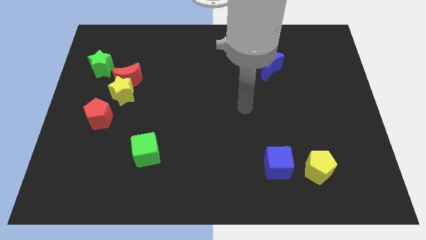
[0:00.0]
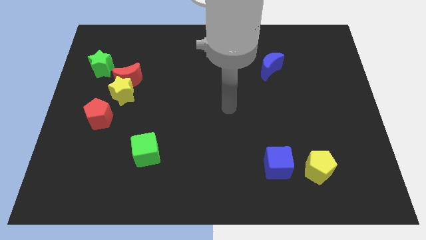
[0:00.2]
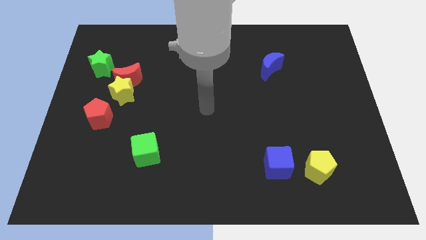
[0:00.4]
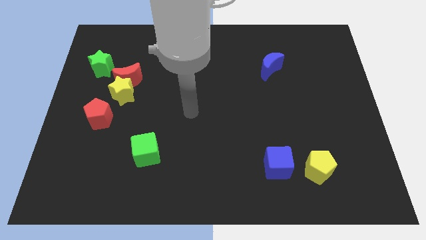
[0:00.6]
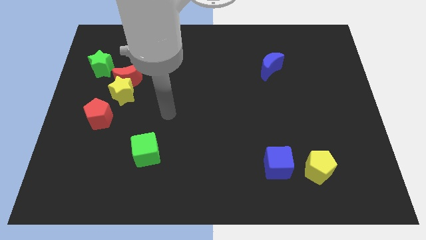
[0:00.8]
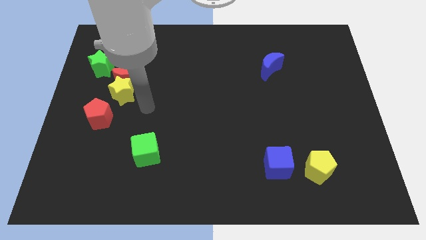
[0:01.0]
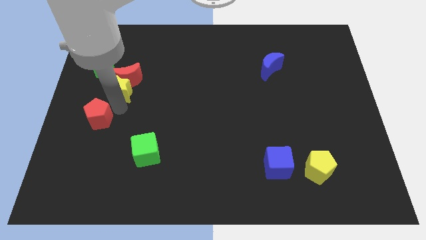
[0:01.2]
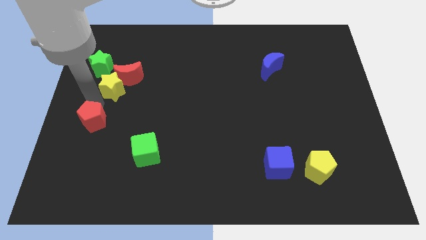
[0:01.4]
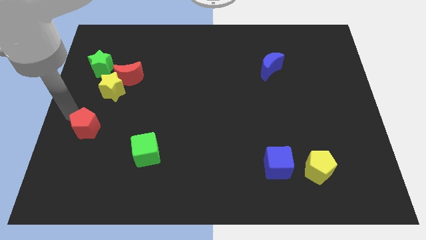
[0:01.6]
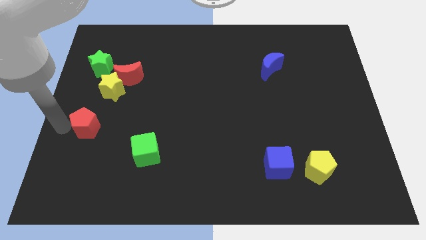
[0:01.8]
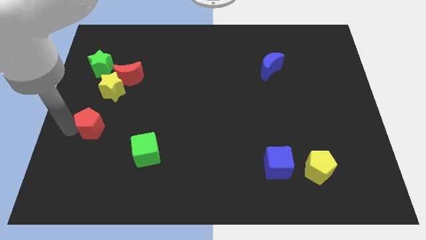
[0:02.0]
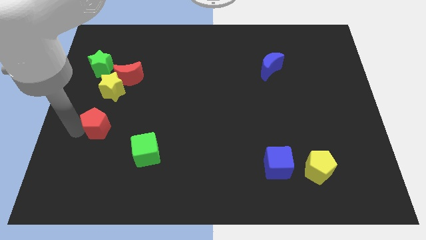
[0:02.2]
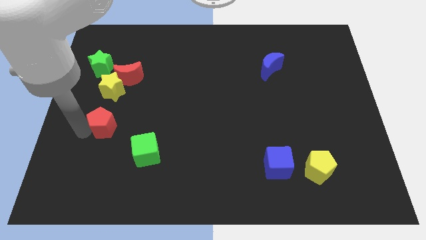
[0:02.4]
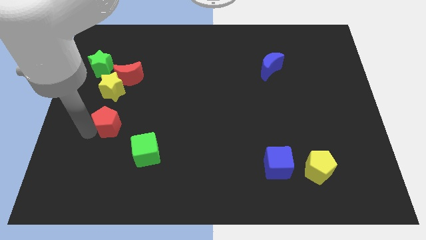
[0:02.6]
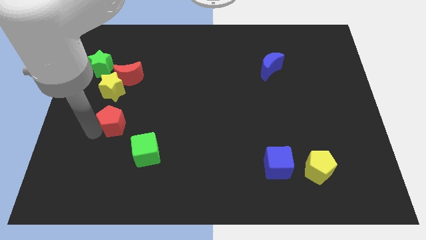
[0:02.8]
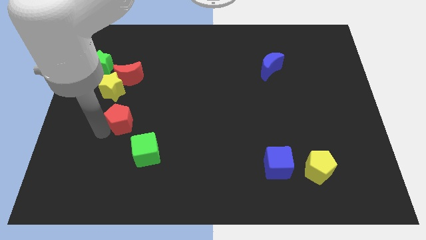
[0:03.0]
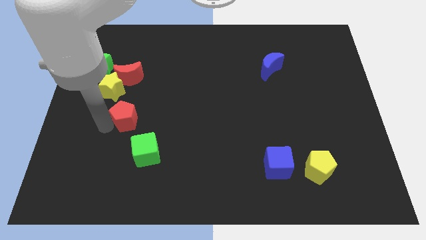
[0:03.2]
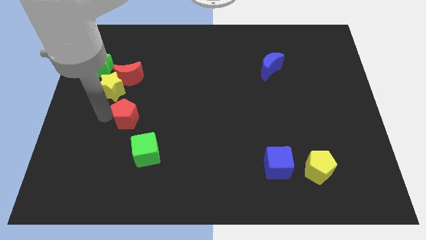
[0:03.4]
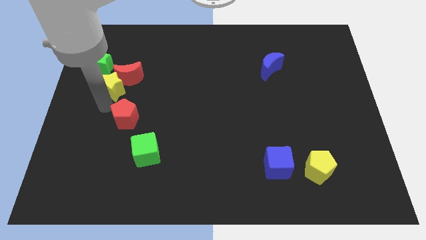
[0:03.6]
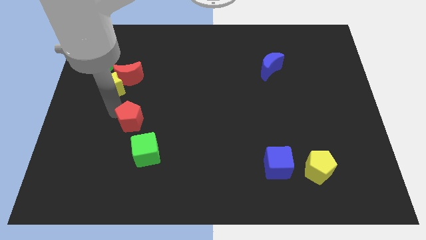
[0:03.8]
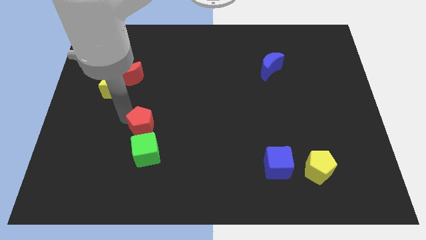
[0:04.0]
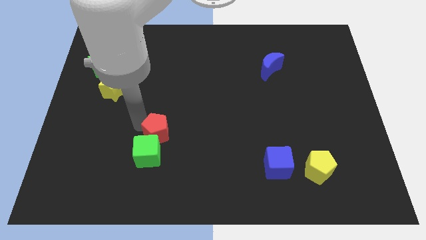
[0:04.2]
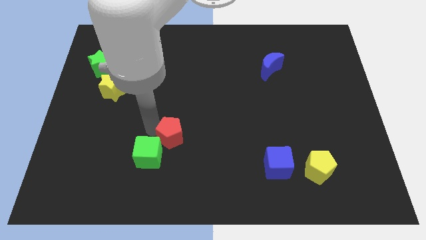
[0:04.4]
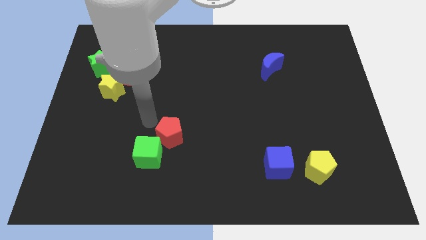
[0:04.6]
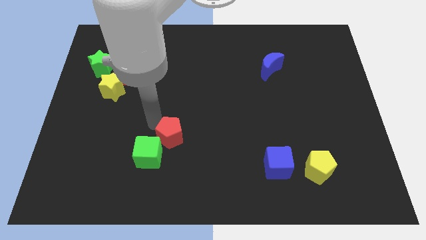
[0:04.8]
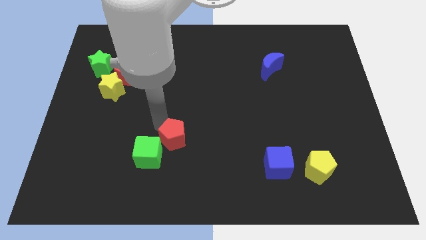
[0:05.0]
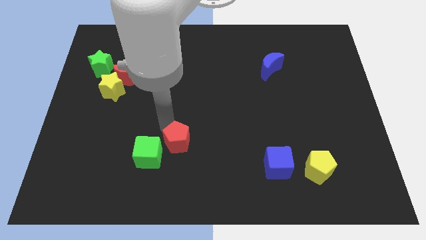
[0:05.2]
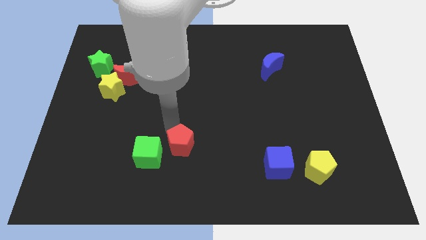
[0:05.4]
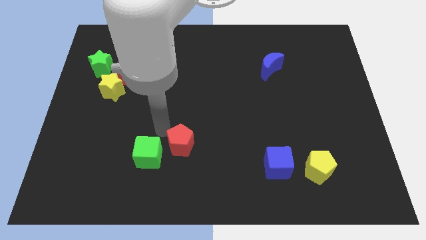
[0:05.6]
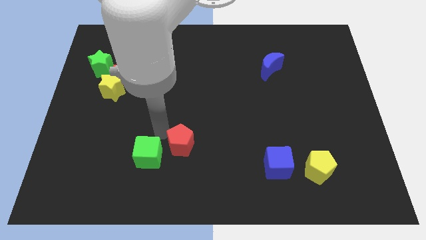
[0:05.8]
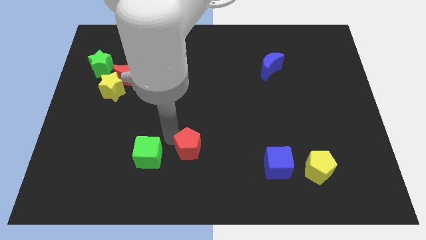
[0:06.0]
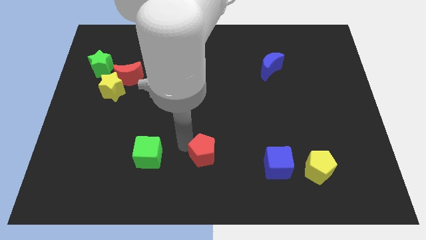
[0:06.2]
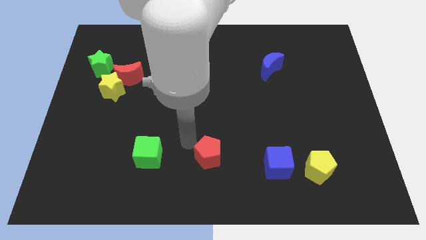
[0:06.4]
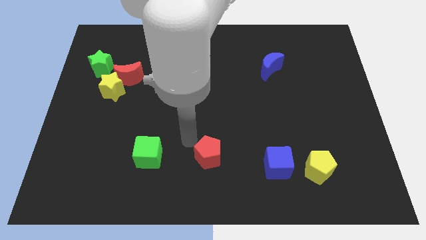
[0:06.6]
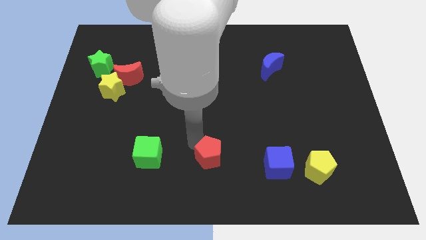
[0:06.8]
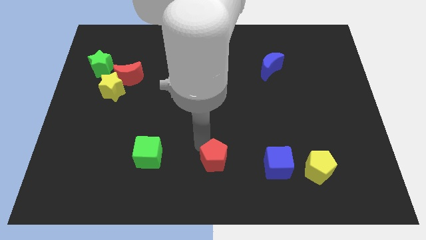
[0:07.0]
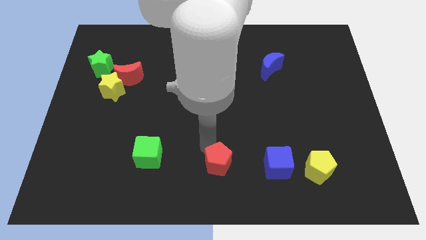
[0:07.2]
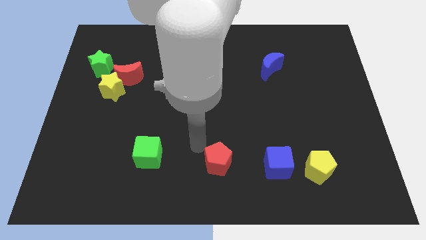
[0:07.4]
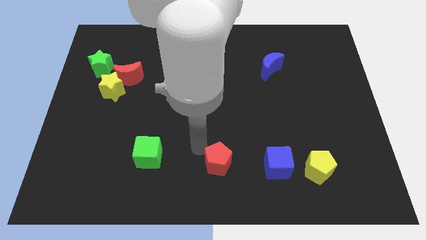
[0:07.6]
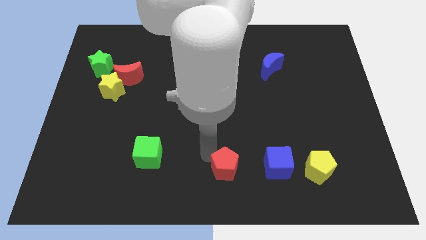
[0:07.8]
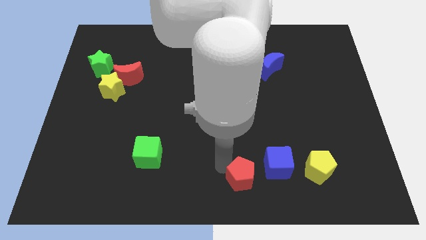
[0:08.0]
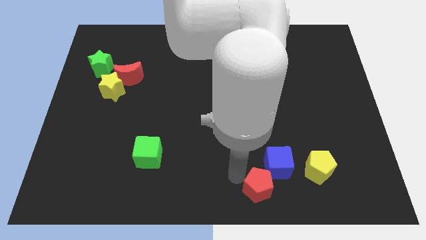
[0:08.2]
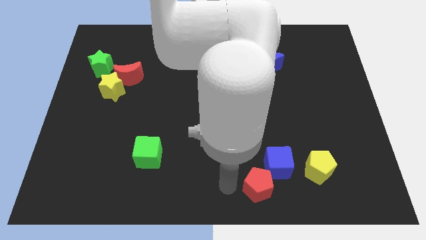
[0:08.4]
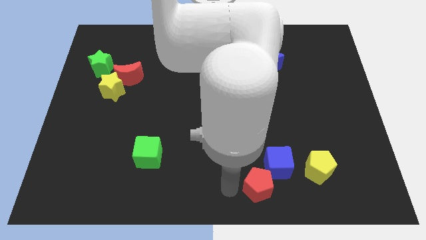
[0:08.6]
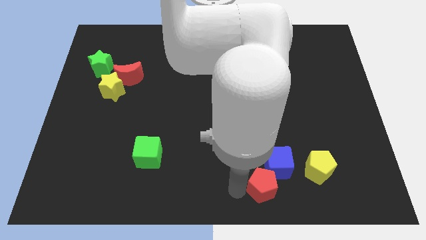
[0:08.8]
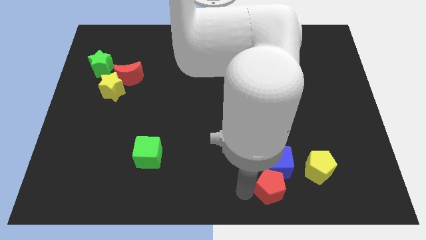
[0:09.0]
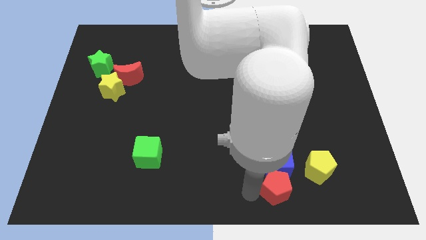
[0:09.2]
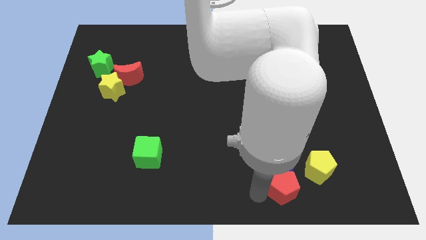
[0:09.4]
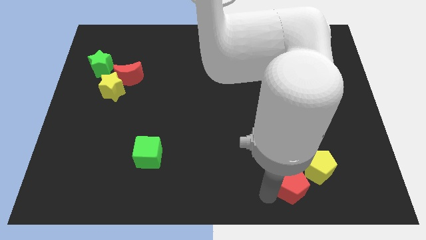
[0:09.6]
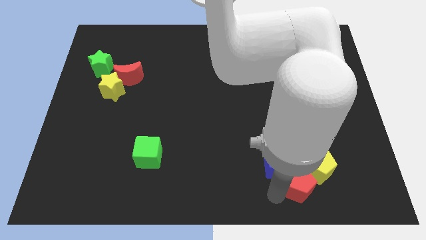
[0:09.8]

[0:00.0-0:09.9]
push the red pentagon close to the yellow pentagon

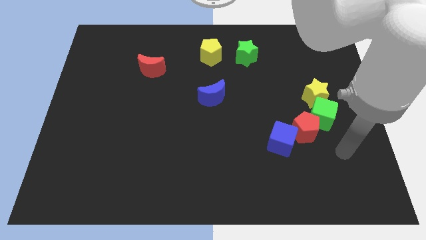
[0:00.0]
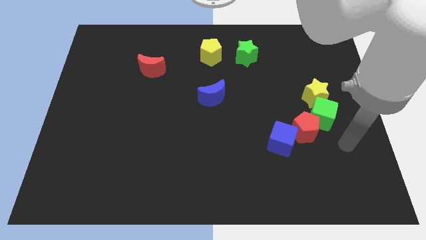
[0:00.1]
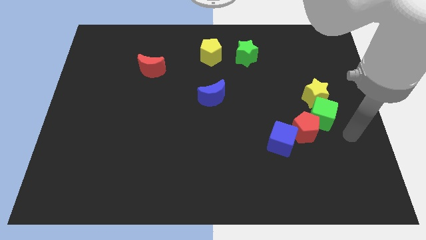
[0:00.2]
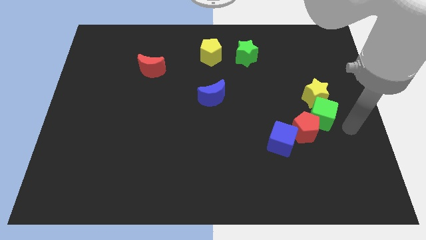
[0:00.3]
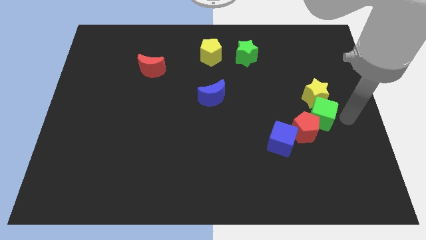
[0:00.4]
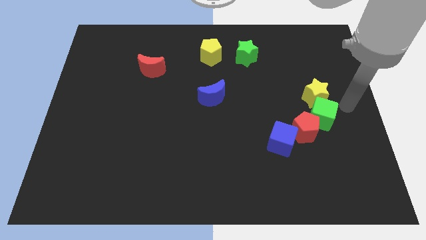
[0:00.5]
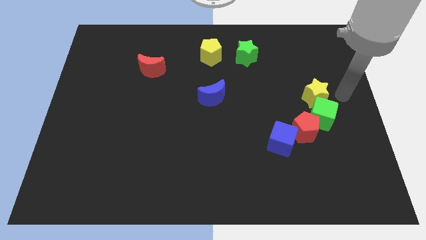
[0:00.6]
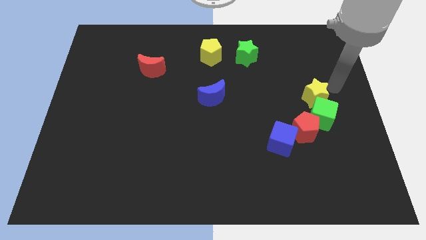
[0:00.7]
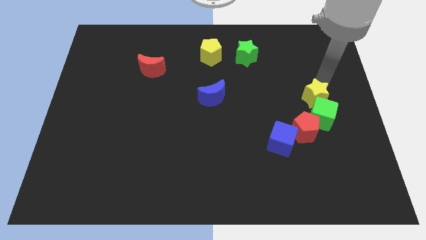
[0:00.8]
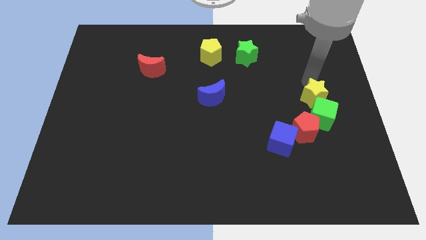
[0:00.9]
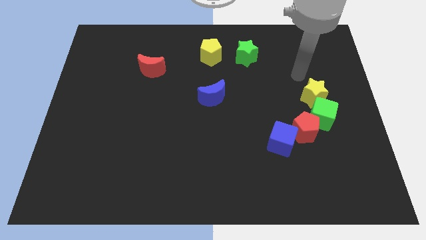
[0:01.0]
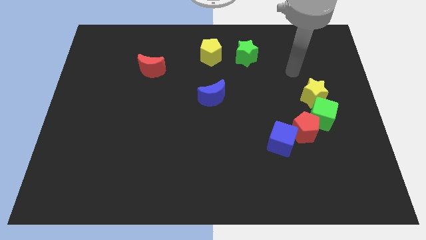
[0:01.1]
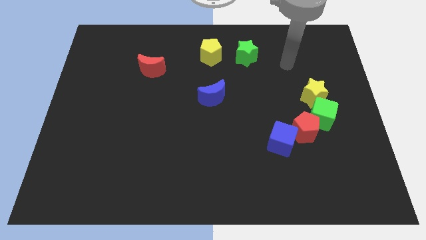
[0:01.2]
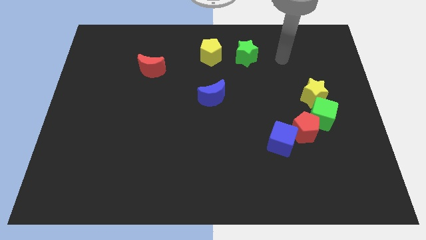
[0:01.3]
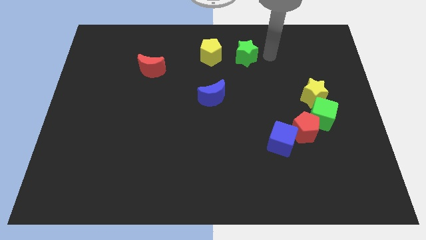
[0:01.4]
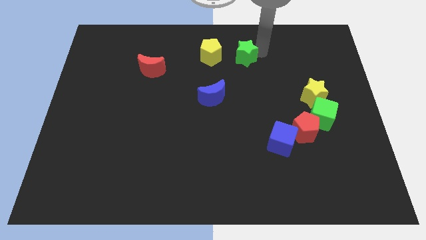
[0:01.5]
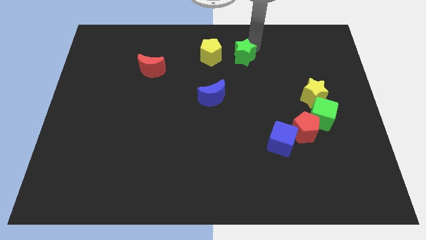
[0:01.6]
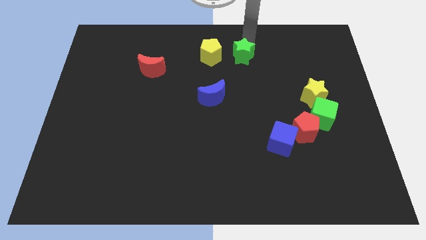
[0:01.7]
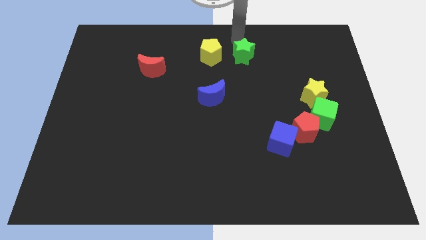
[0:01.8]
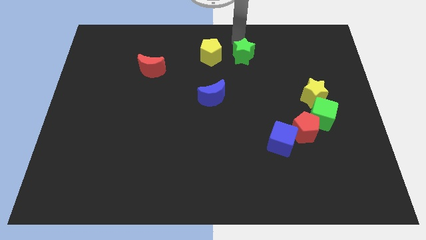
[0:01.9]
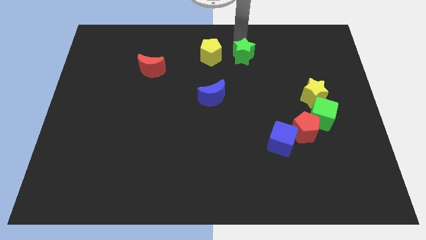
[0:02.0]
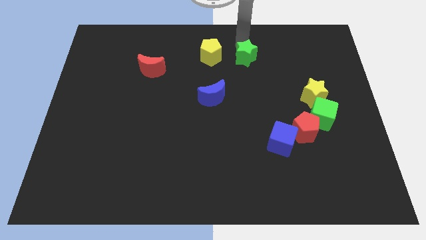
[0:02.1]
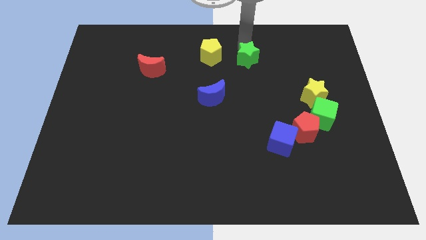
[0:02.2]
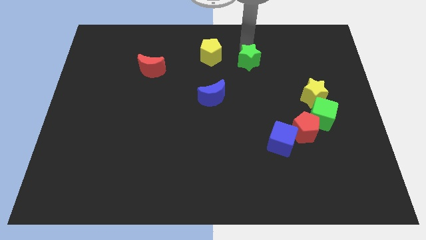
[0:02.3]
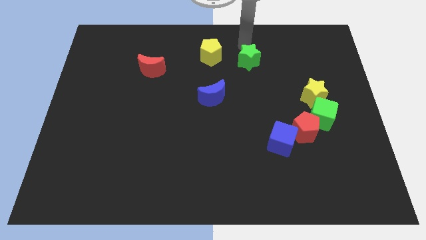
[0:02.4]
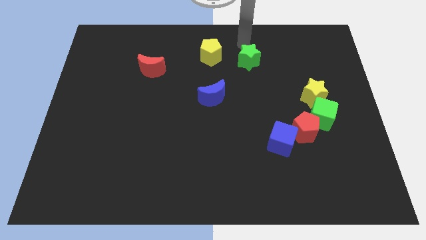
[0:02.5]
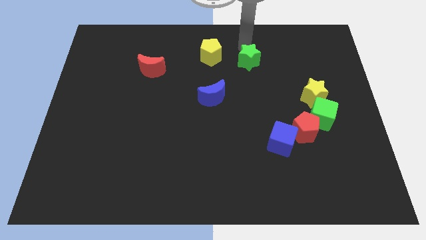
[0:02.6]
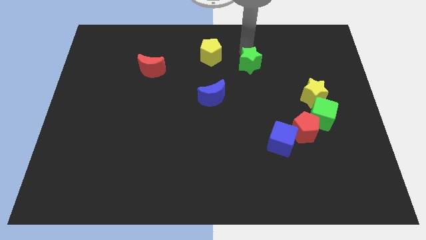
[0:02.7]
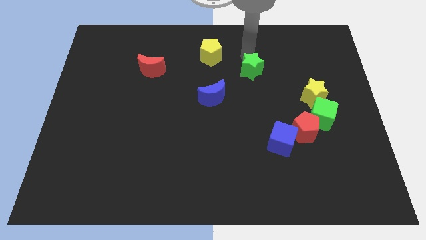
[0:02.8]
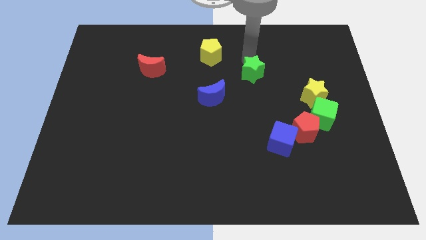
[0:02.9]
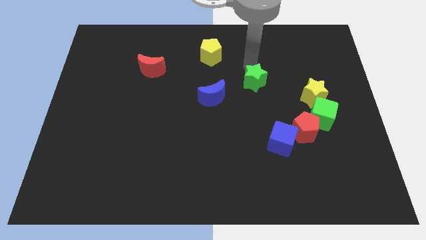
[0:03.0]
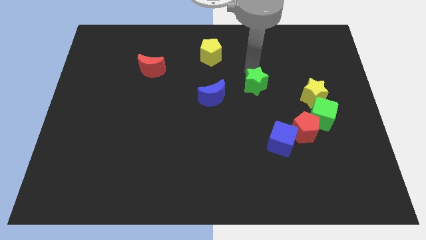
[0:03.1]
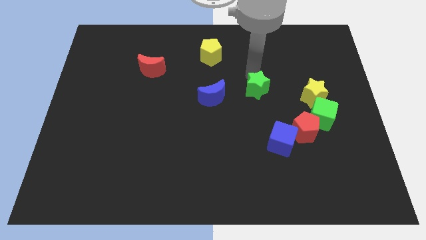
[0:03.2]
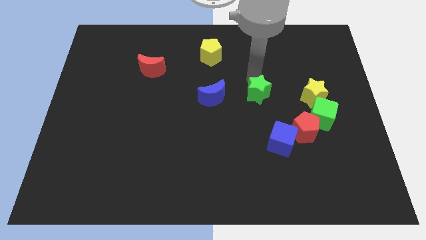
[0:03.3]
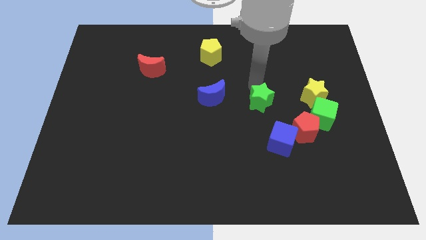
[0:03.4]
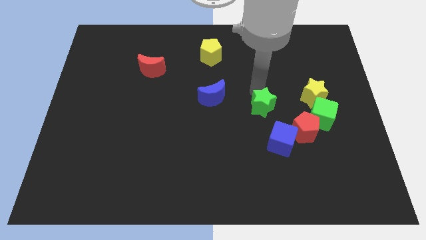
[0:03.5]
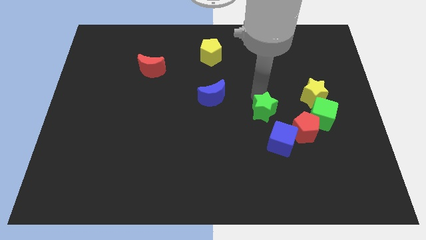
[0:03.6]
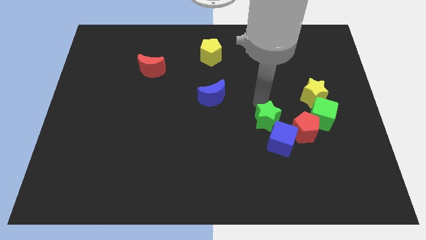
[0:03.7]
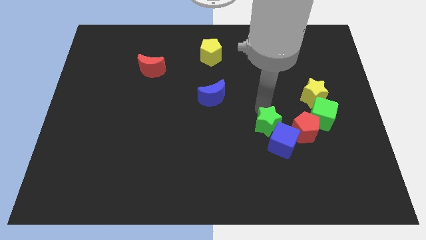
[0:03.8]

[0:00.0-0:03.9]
slide the green star to the blue cube

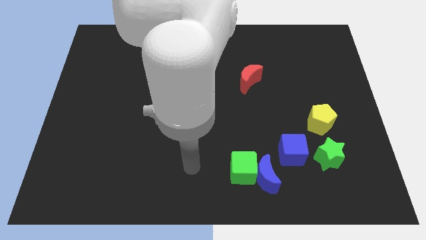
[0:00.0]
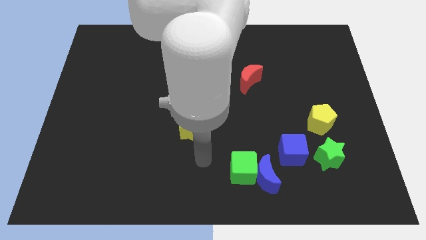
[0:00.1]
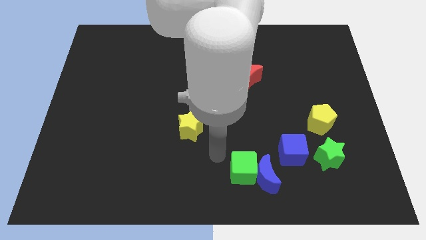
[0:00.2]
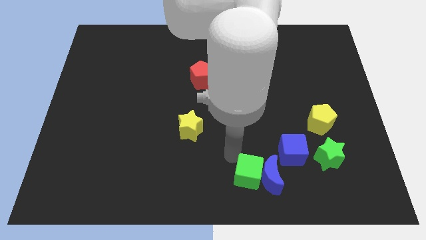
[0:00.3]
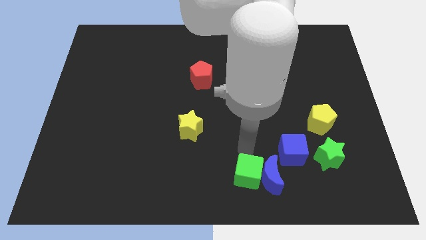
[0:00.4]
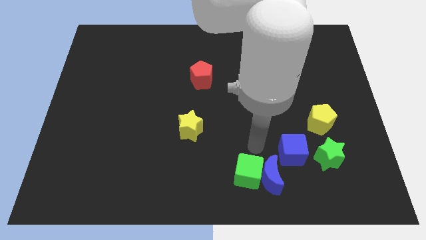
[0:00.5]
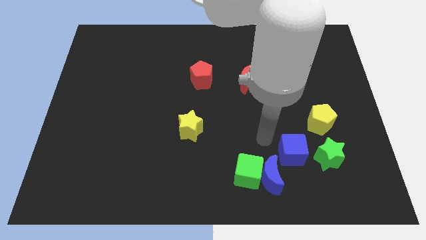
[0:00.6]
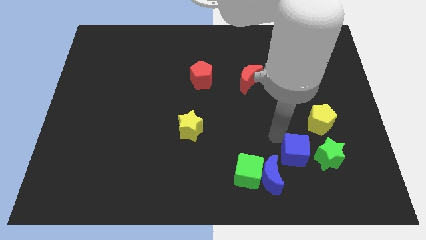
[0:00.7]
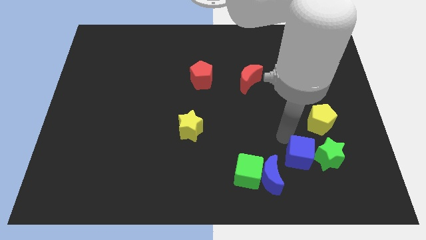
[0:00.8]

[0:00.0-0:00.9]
push the green star next to the blue cube
